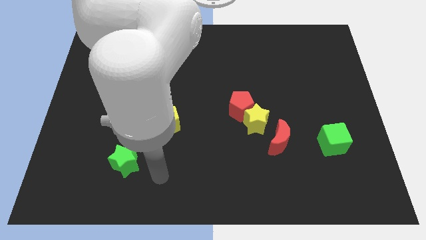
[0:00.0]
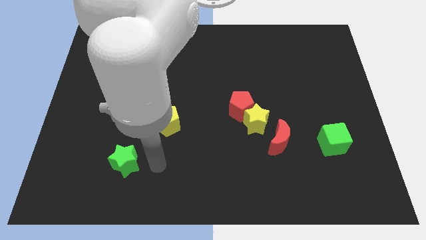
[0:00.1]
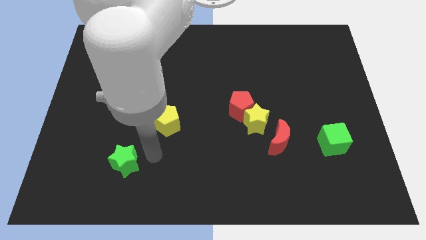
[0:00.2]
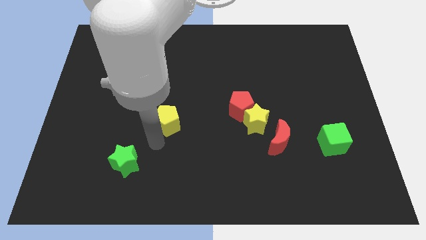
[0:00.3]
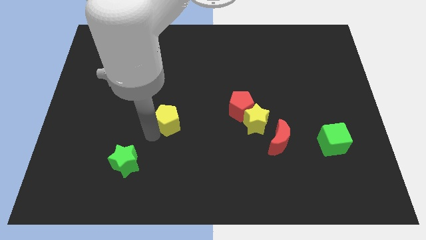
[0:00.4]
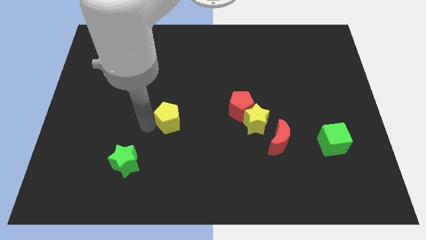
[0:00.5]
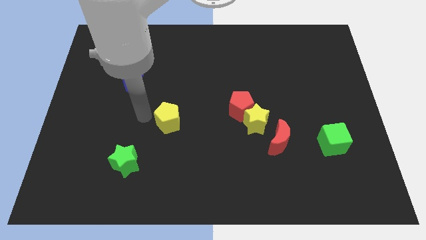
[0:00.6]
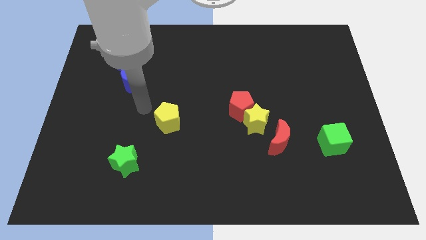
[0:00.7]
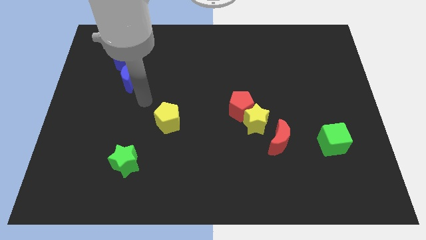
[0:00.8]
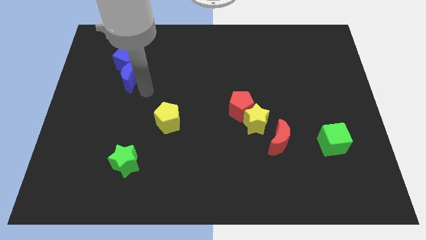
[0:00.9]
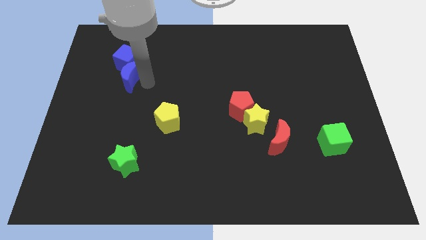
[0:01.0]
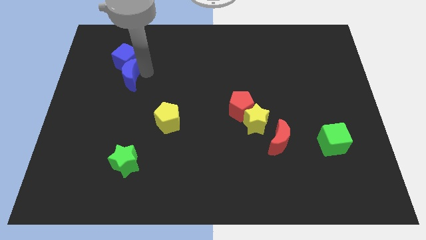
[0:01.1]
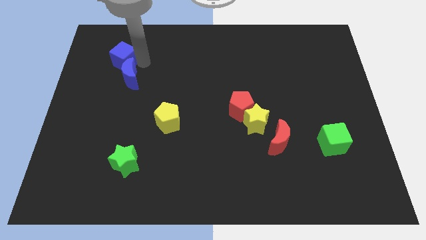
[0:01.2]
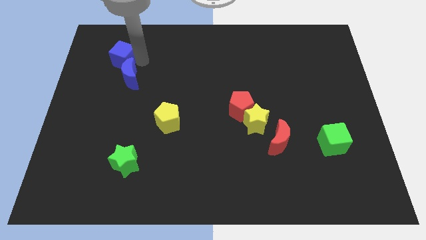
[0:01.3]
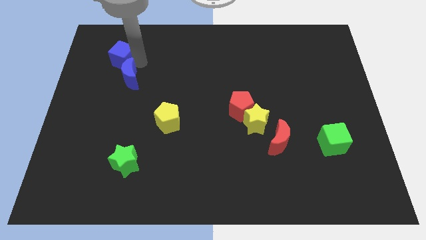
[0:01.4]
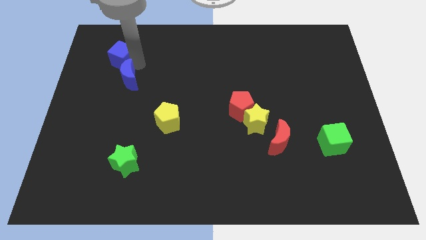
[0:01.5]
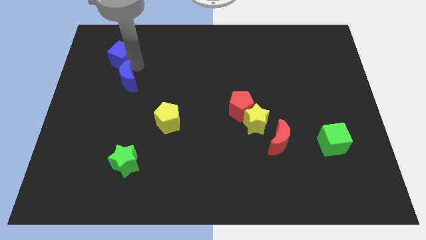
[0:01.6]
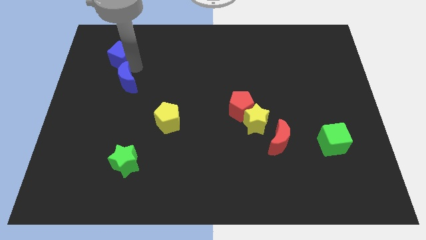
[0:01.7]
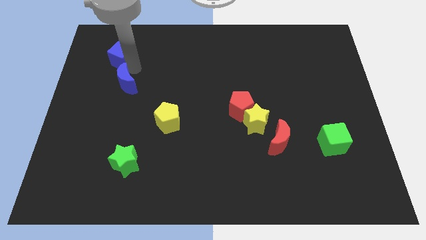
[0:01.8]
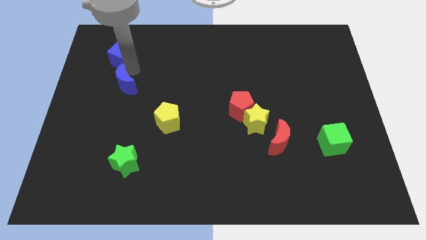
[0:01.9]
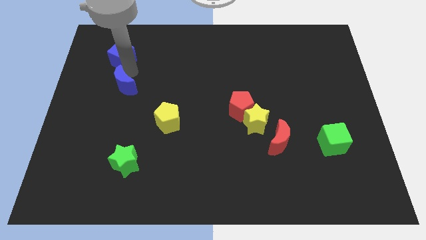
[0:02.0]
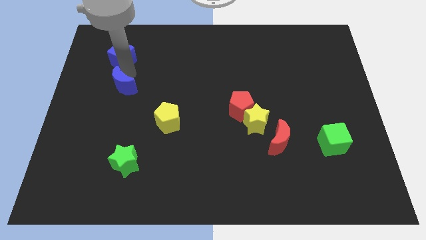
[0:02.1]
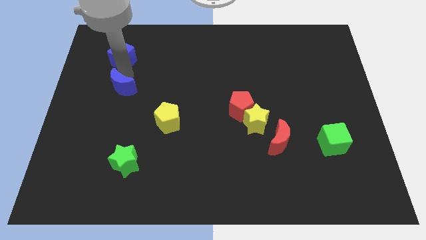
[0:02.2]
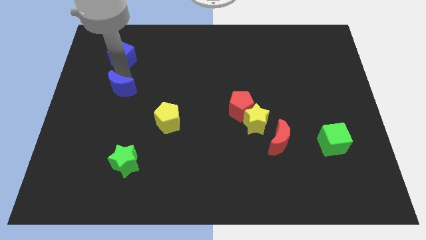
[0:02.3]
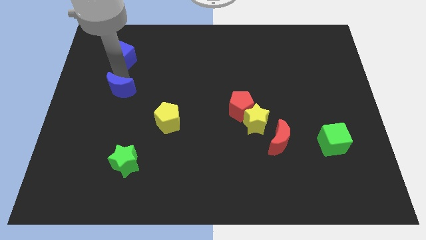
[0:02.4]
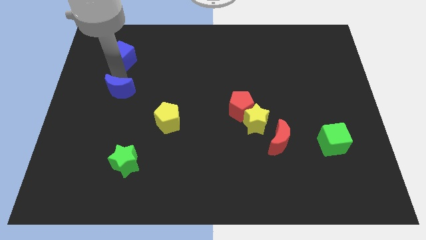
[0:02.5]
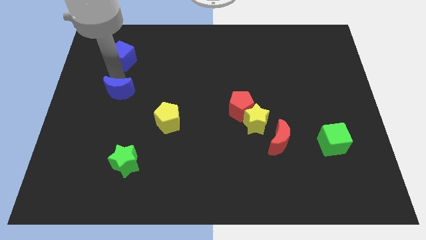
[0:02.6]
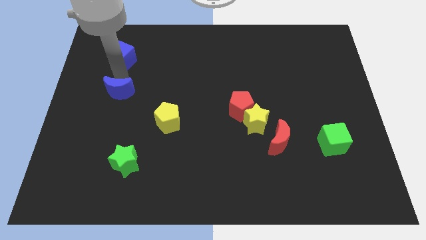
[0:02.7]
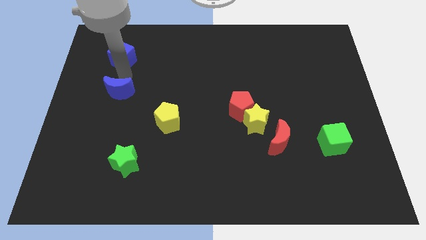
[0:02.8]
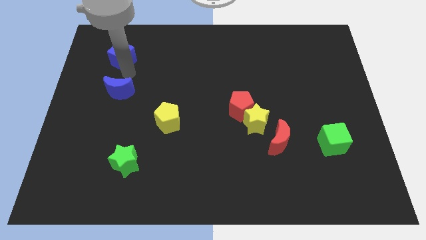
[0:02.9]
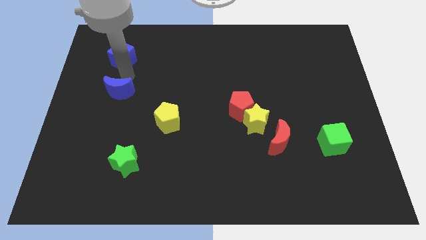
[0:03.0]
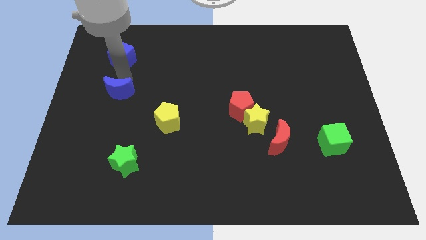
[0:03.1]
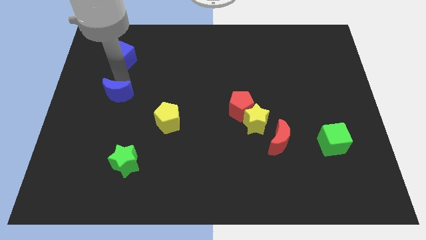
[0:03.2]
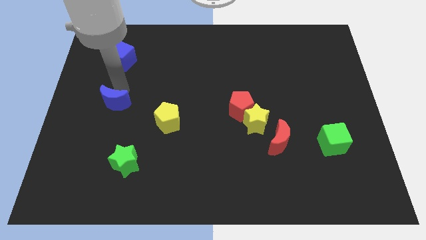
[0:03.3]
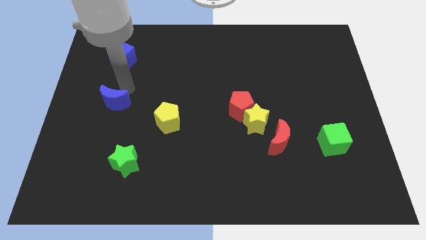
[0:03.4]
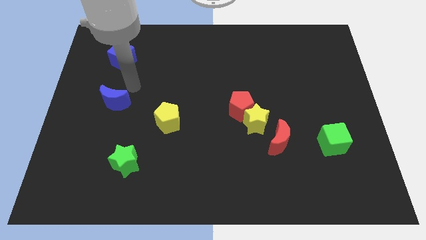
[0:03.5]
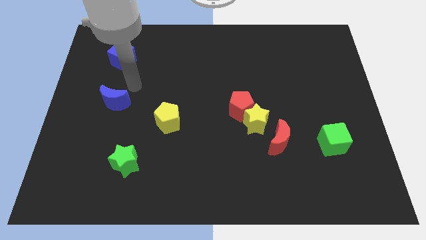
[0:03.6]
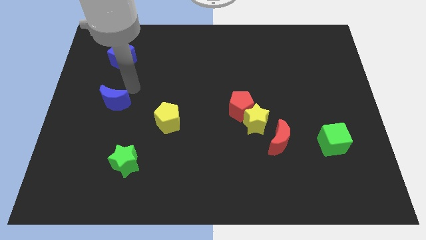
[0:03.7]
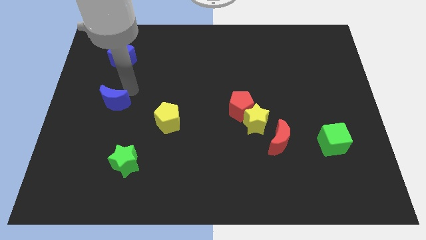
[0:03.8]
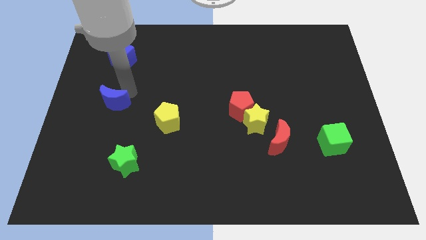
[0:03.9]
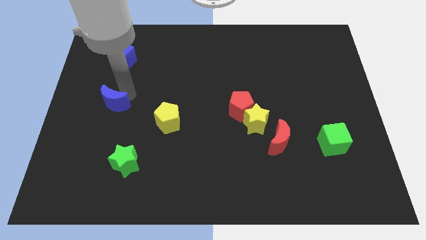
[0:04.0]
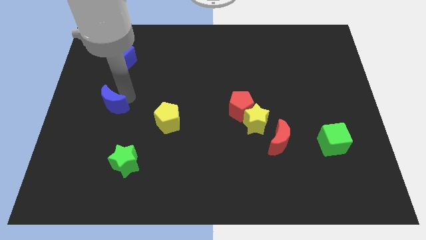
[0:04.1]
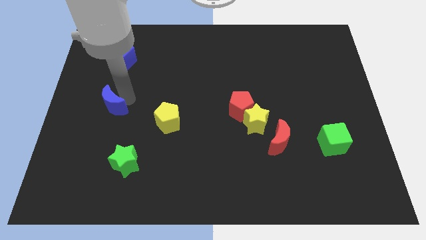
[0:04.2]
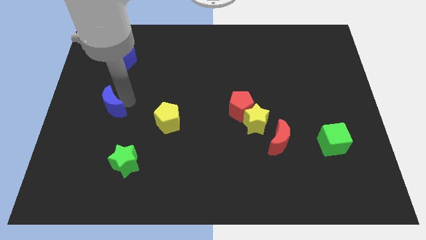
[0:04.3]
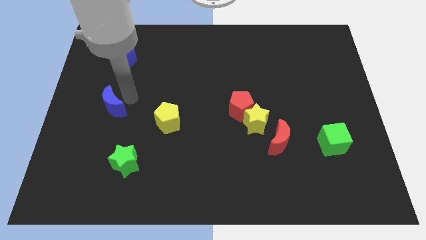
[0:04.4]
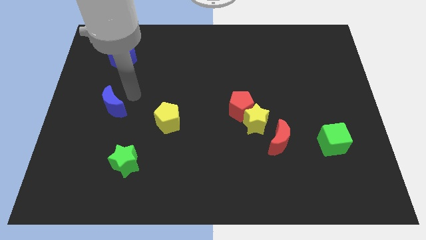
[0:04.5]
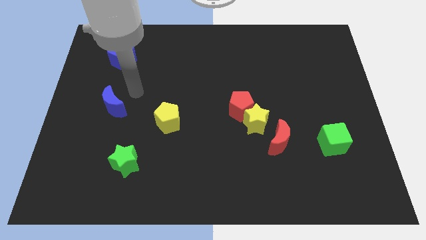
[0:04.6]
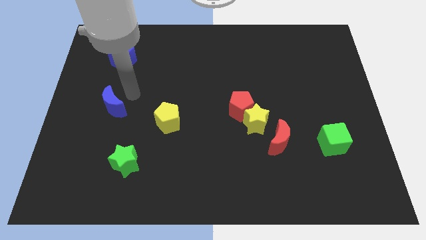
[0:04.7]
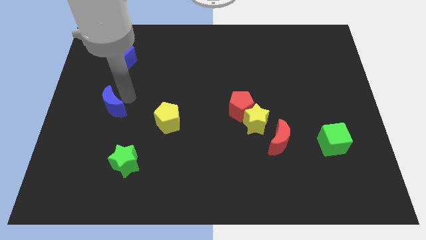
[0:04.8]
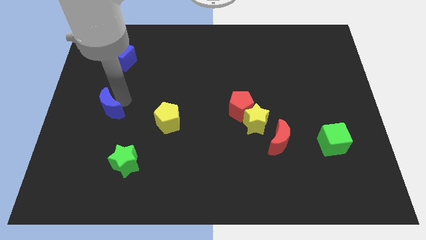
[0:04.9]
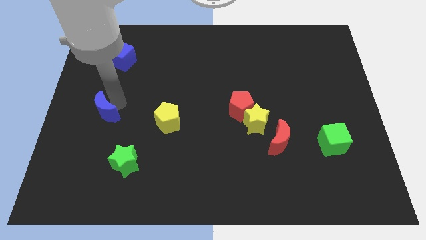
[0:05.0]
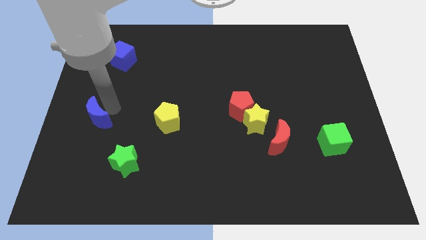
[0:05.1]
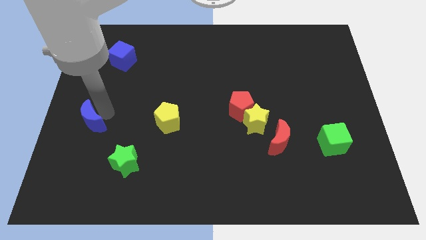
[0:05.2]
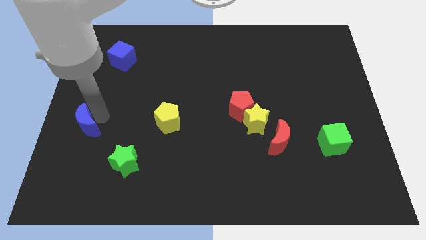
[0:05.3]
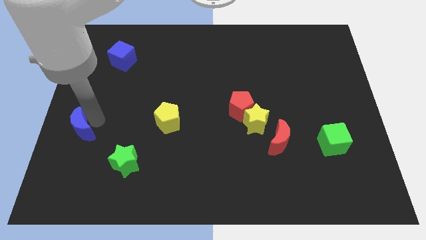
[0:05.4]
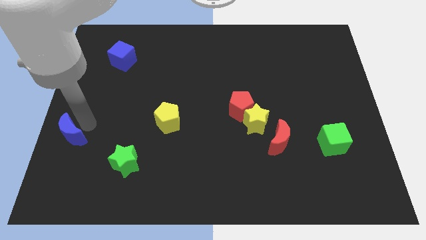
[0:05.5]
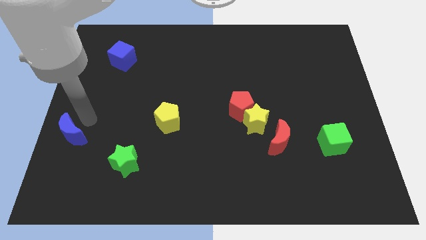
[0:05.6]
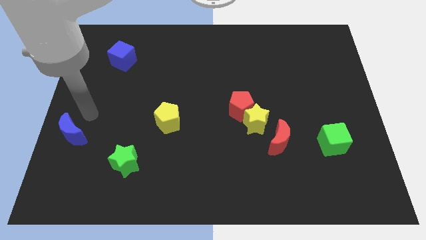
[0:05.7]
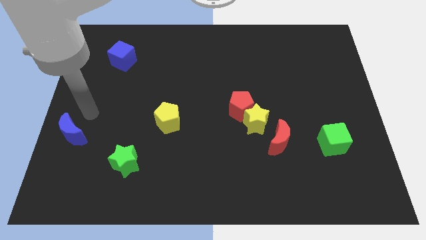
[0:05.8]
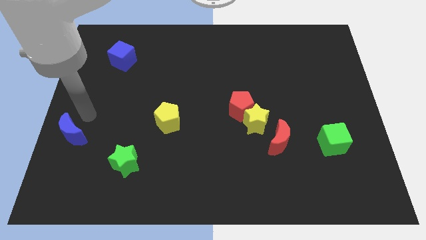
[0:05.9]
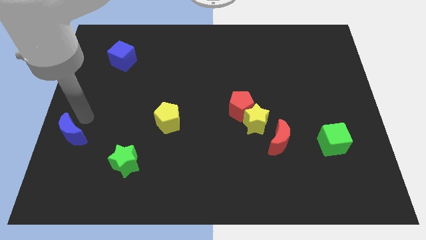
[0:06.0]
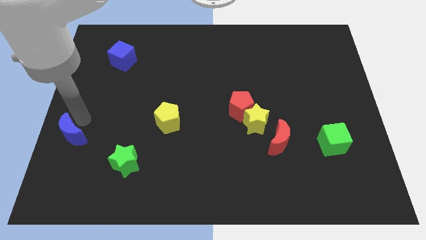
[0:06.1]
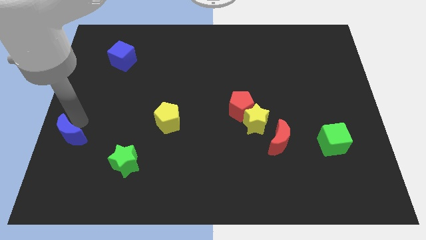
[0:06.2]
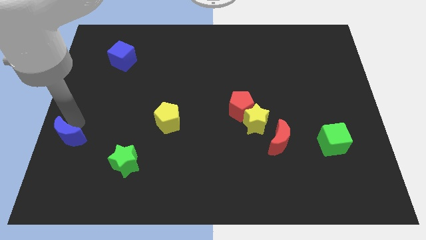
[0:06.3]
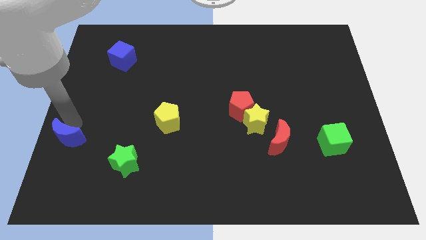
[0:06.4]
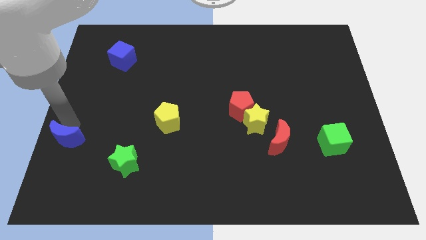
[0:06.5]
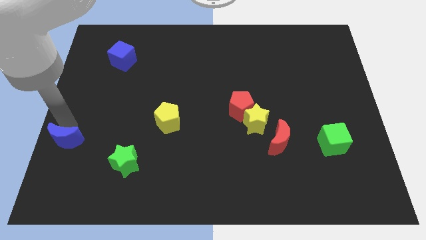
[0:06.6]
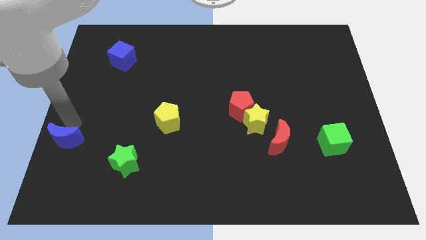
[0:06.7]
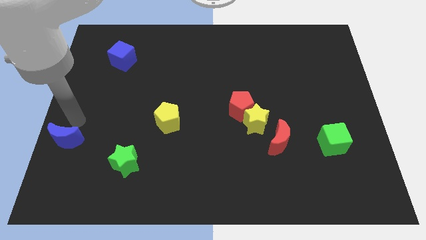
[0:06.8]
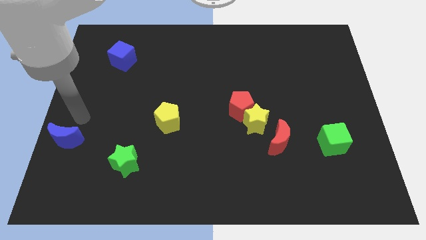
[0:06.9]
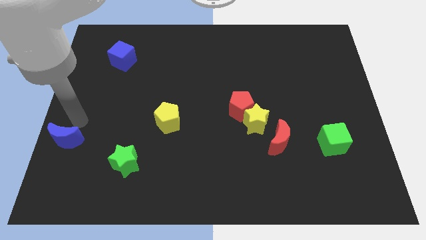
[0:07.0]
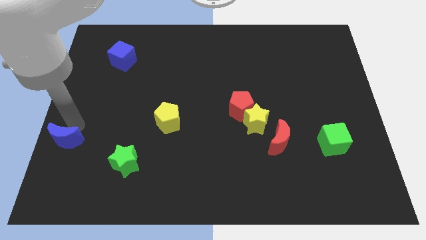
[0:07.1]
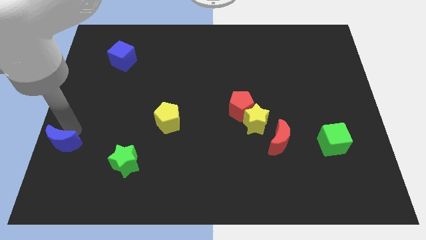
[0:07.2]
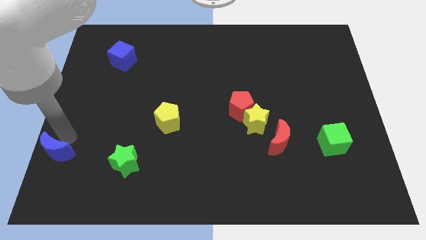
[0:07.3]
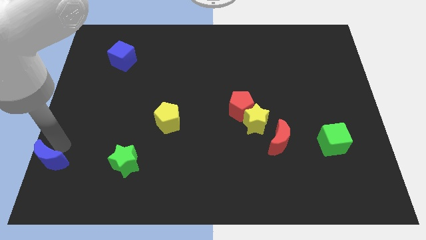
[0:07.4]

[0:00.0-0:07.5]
put the blue moon to the bottom left corner
